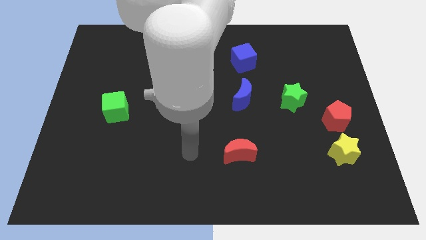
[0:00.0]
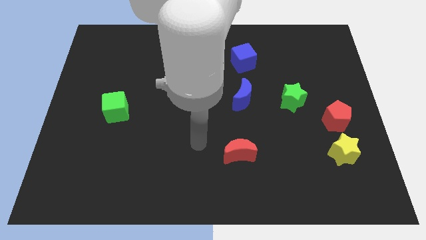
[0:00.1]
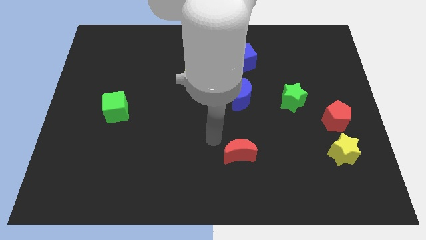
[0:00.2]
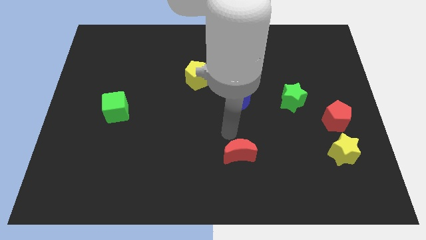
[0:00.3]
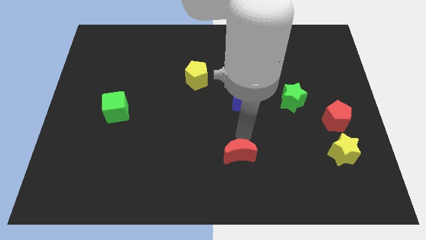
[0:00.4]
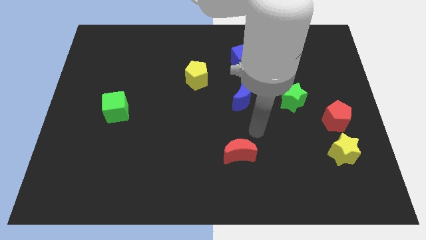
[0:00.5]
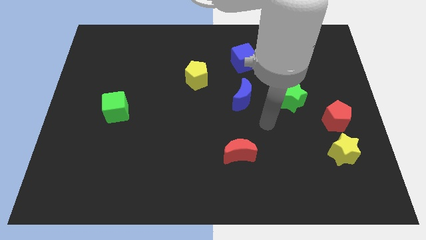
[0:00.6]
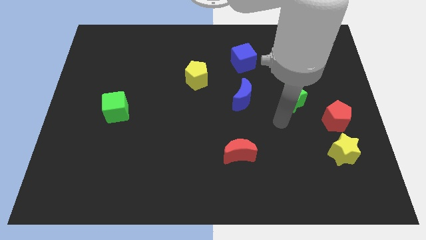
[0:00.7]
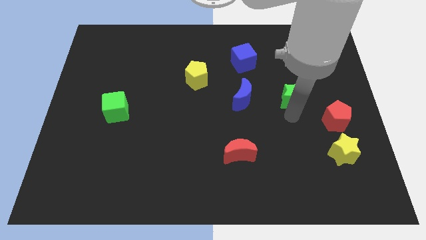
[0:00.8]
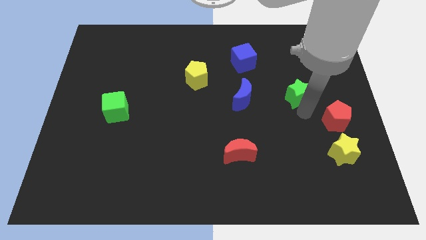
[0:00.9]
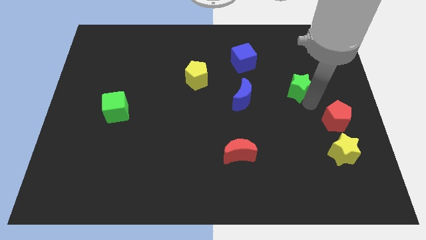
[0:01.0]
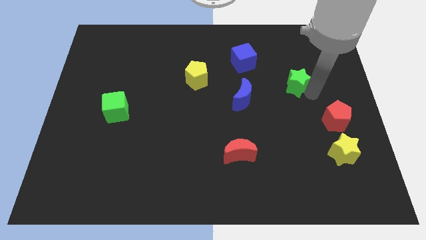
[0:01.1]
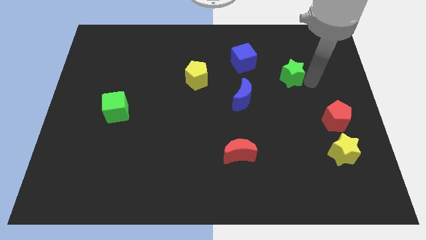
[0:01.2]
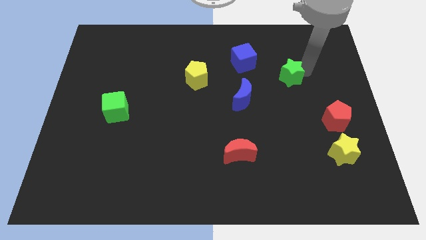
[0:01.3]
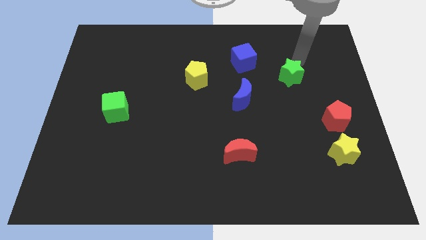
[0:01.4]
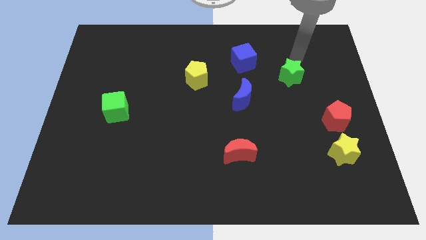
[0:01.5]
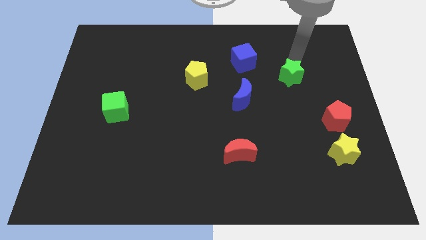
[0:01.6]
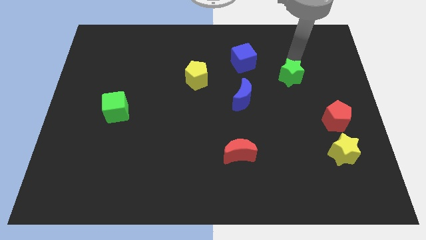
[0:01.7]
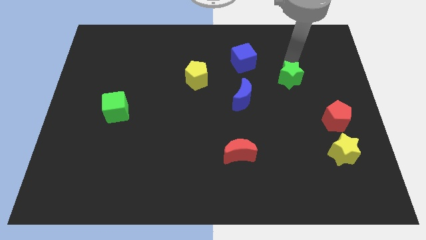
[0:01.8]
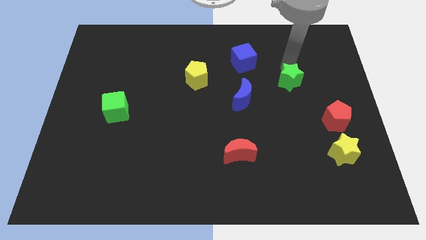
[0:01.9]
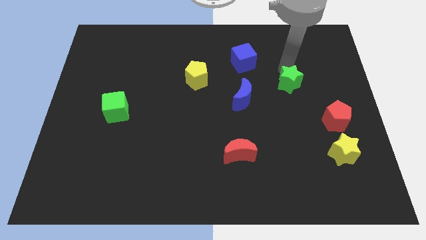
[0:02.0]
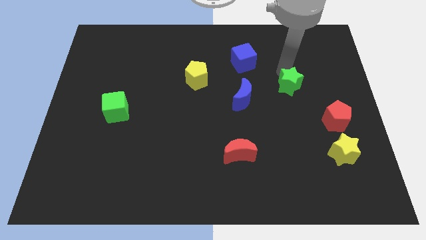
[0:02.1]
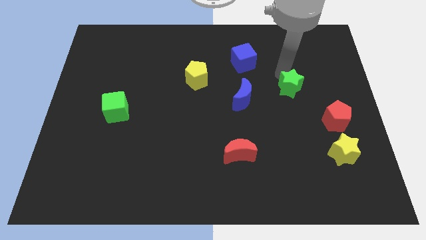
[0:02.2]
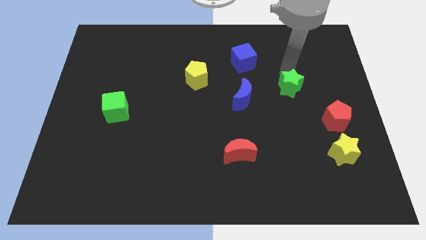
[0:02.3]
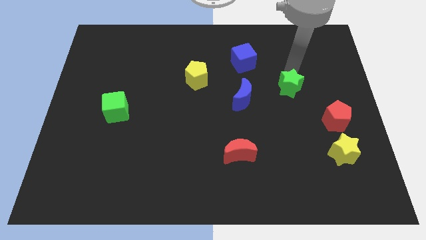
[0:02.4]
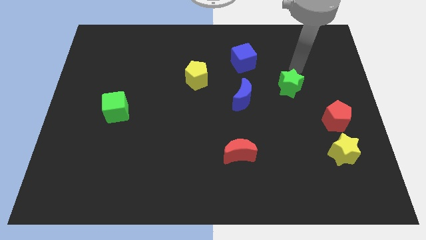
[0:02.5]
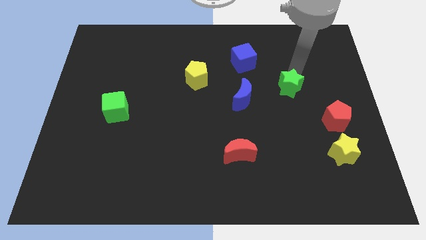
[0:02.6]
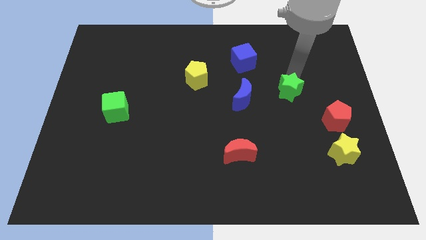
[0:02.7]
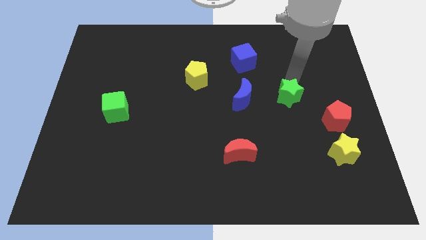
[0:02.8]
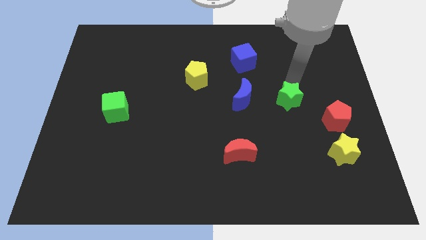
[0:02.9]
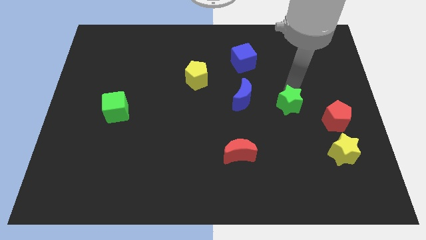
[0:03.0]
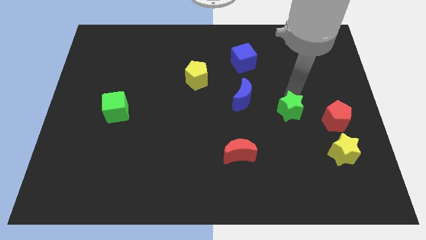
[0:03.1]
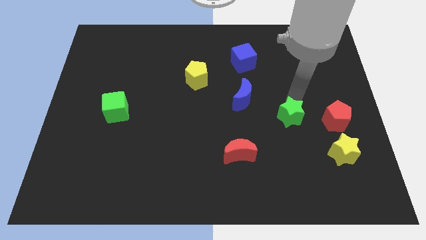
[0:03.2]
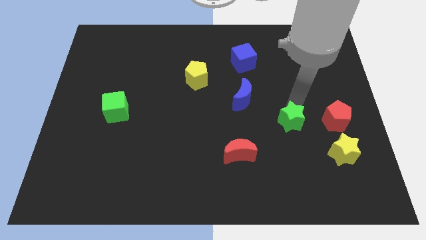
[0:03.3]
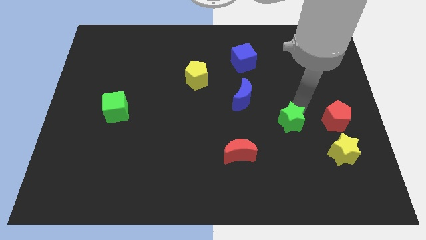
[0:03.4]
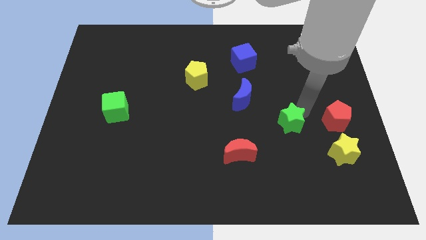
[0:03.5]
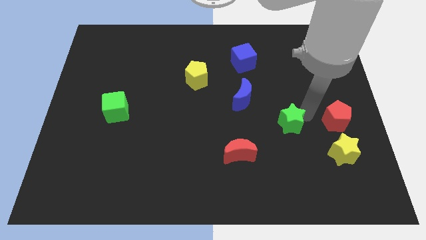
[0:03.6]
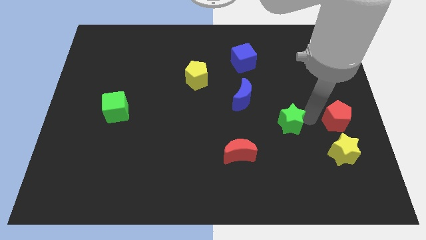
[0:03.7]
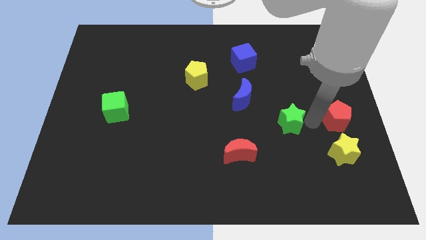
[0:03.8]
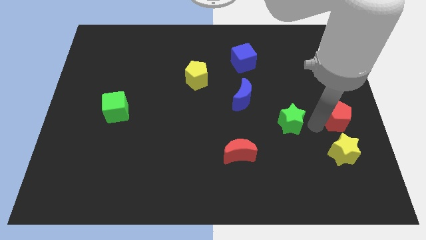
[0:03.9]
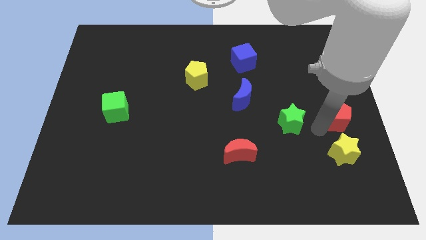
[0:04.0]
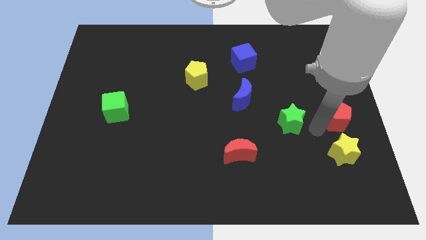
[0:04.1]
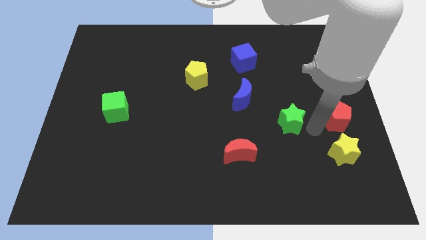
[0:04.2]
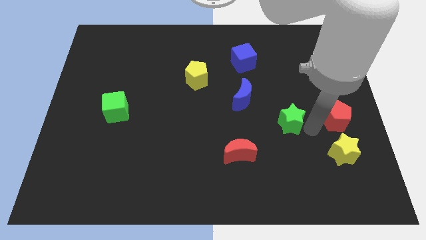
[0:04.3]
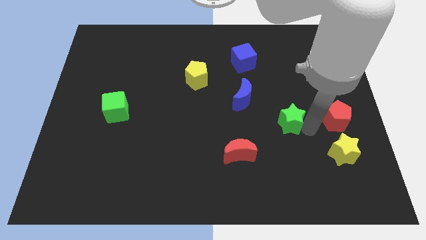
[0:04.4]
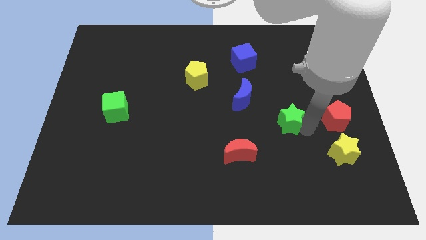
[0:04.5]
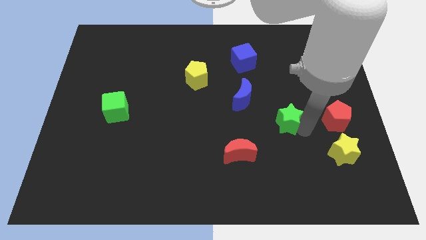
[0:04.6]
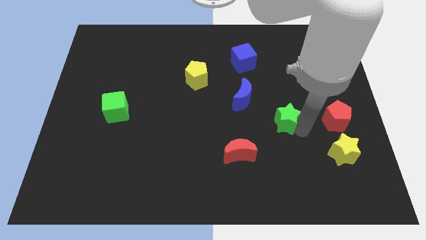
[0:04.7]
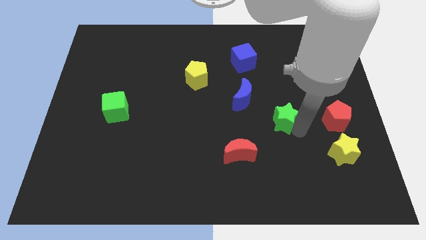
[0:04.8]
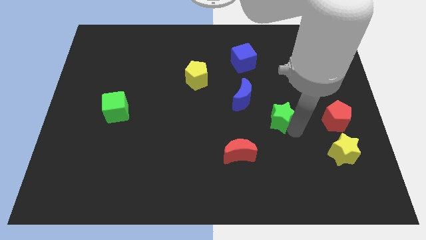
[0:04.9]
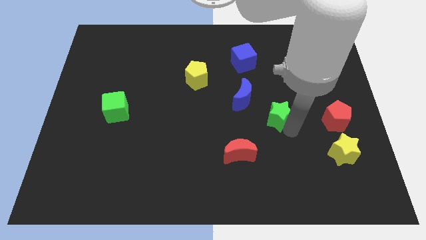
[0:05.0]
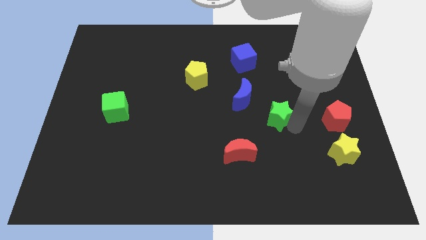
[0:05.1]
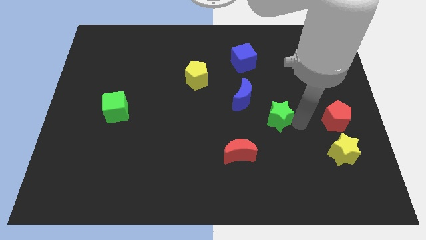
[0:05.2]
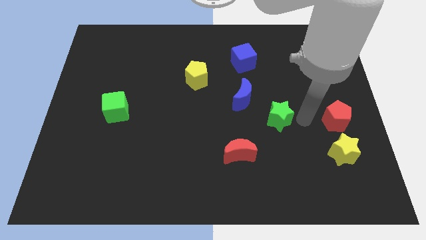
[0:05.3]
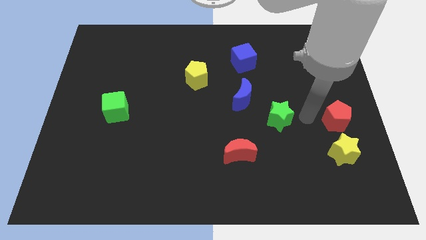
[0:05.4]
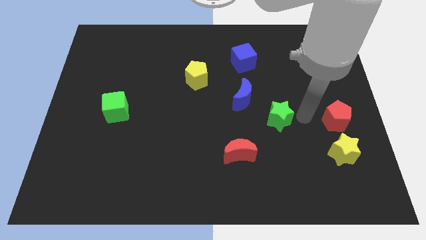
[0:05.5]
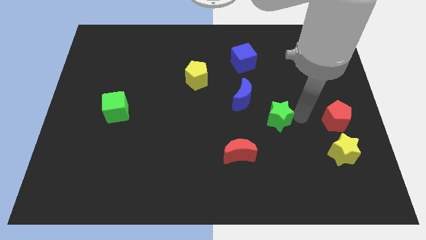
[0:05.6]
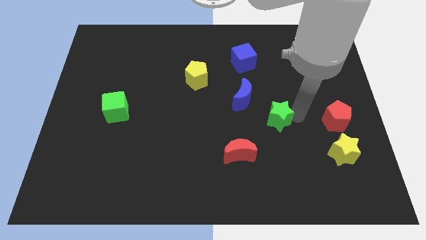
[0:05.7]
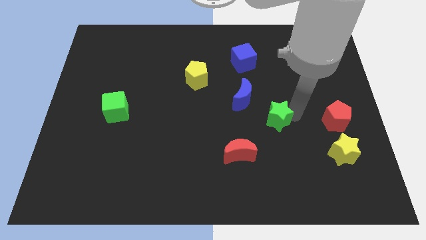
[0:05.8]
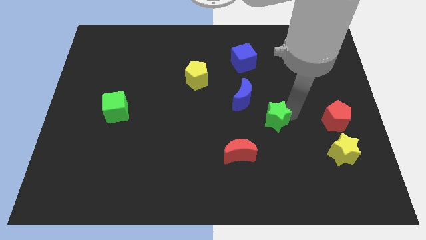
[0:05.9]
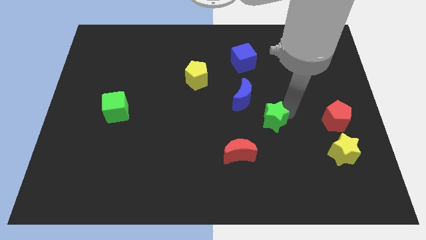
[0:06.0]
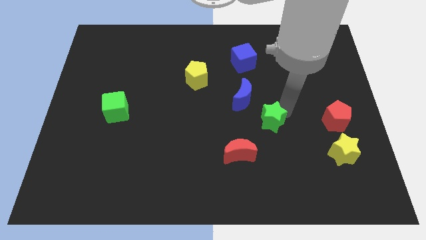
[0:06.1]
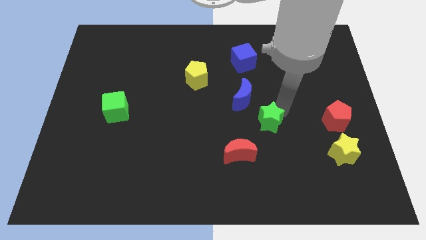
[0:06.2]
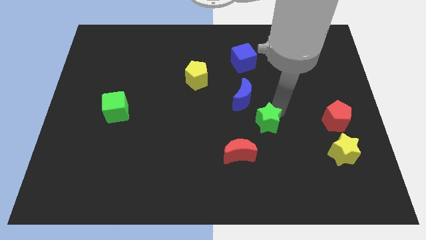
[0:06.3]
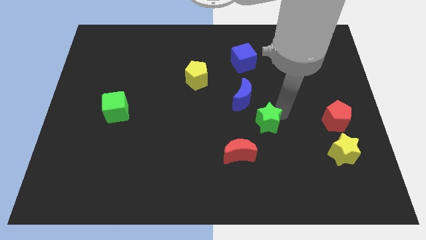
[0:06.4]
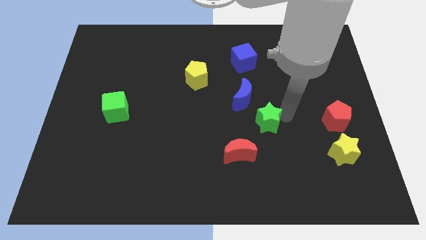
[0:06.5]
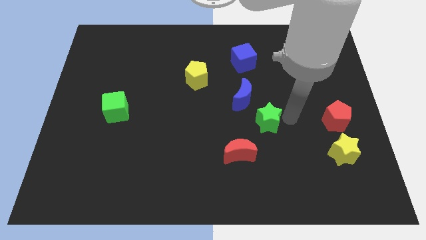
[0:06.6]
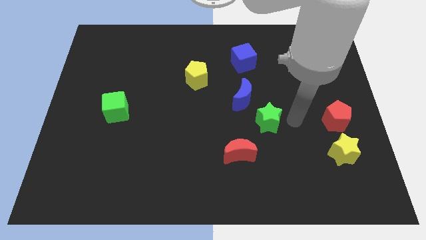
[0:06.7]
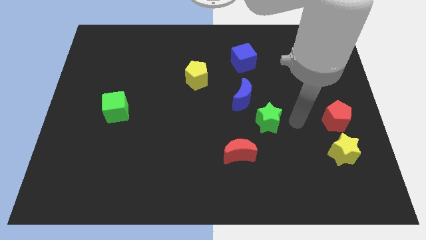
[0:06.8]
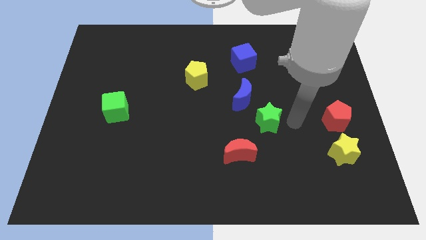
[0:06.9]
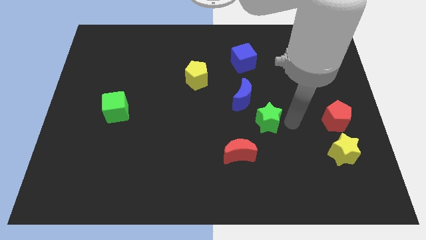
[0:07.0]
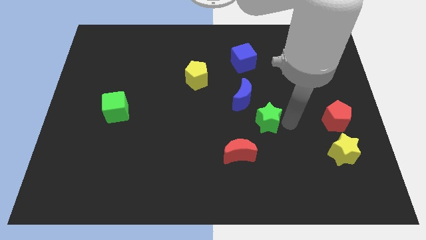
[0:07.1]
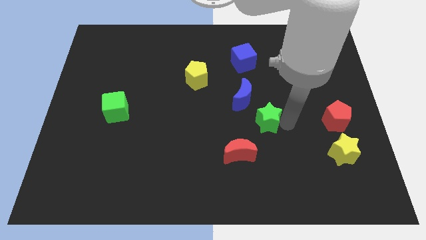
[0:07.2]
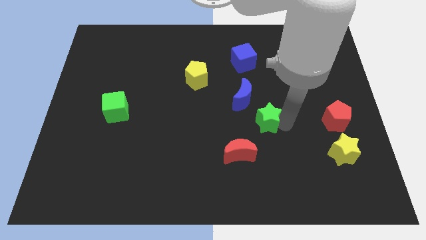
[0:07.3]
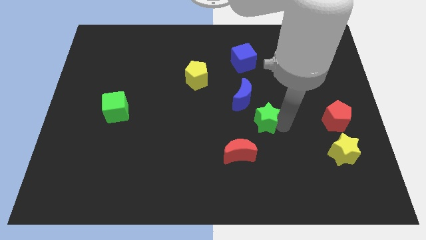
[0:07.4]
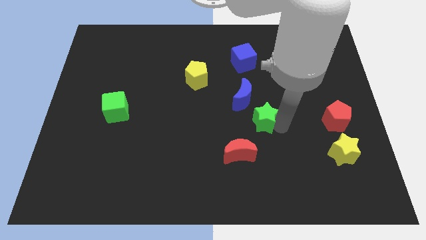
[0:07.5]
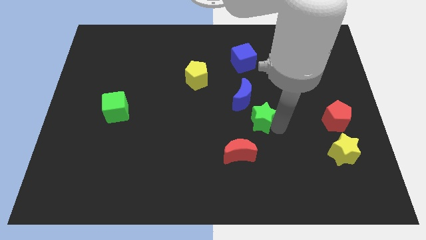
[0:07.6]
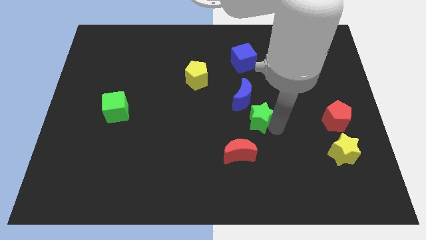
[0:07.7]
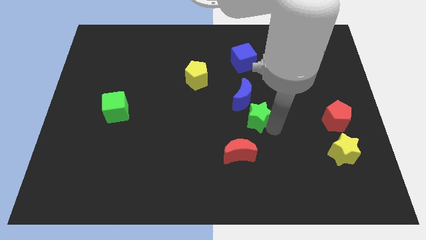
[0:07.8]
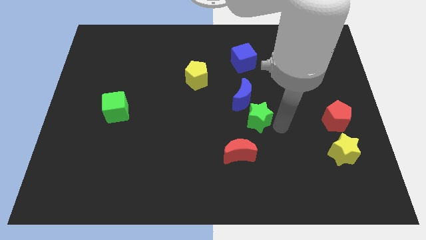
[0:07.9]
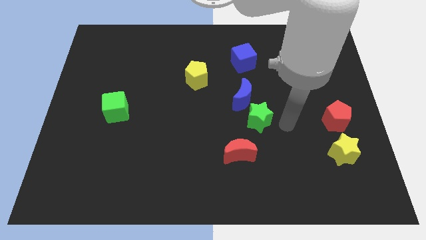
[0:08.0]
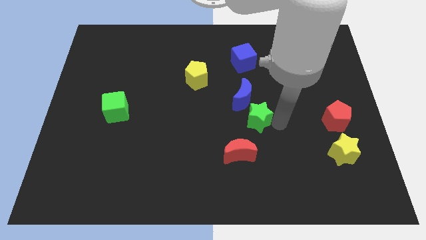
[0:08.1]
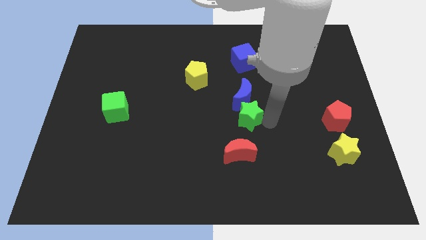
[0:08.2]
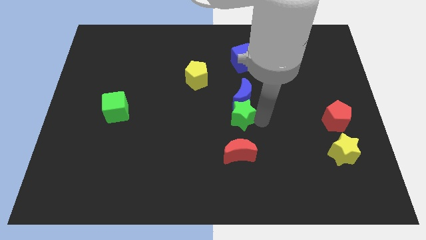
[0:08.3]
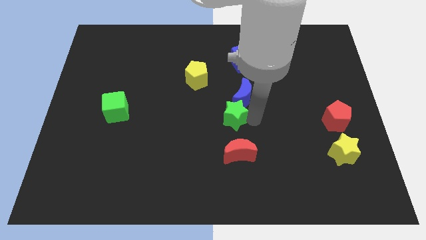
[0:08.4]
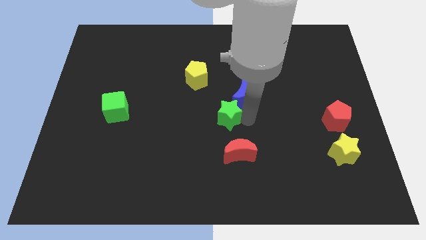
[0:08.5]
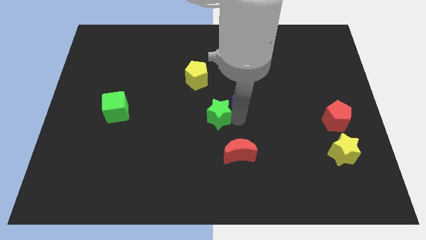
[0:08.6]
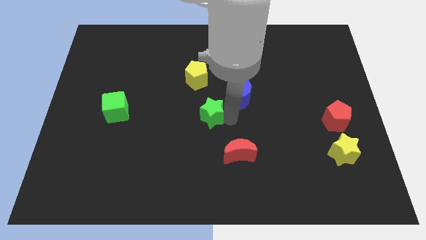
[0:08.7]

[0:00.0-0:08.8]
slide the green star below the yellow pentagon
